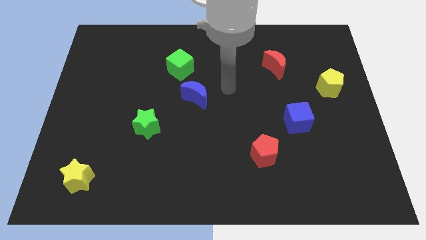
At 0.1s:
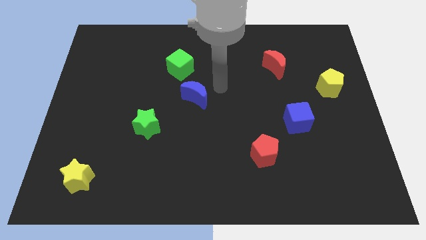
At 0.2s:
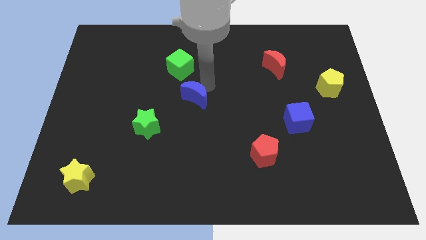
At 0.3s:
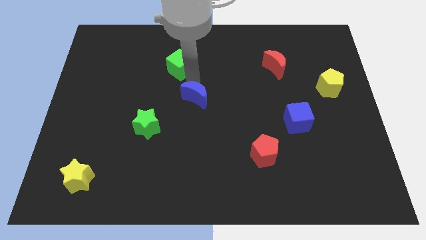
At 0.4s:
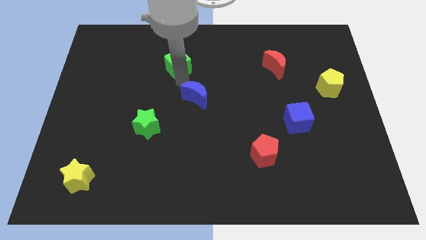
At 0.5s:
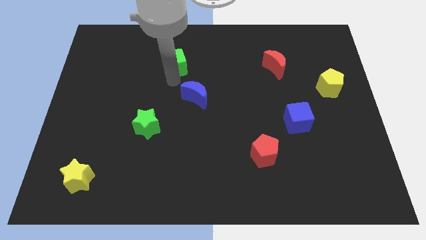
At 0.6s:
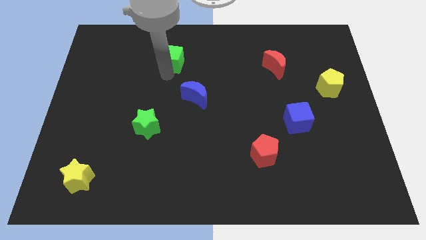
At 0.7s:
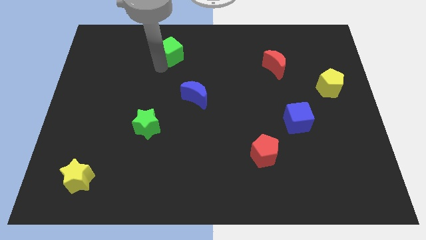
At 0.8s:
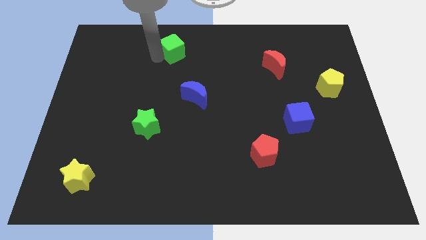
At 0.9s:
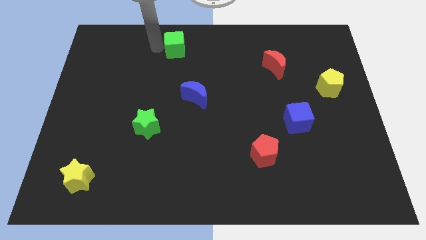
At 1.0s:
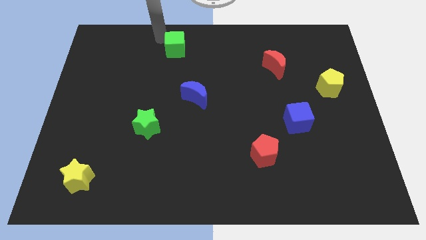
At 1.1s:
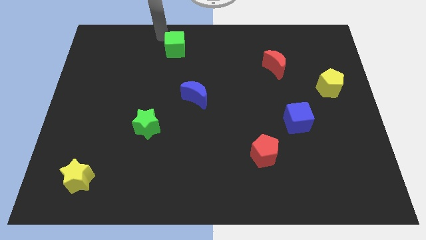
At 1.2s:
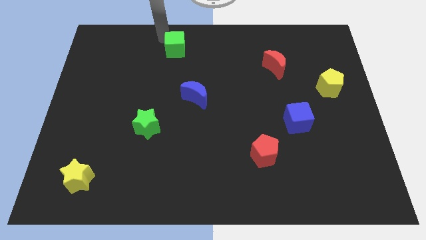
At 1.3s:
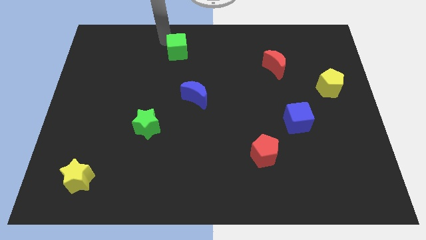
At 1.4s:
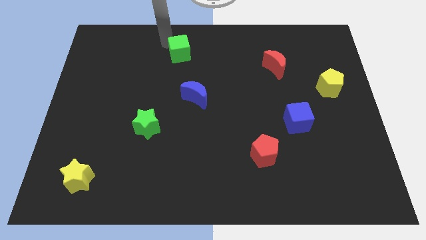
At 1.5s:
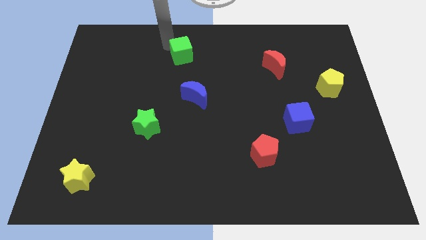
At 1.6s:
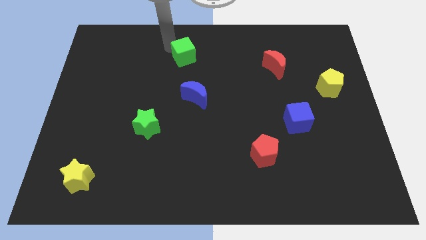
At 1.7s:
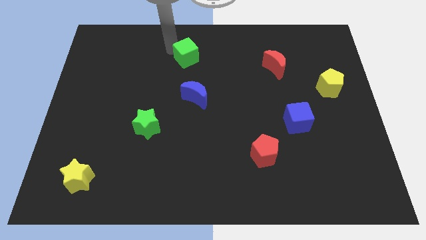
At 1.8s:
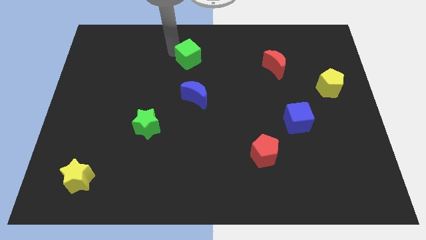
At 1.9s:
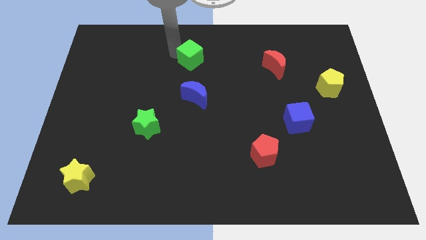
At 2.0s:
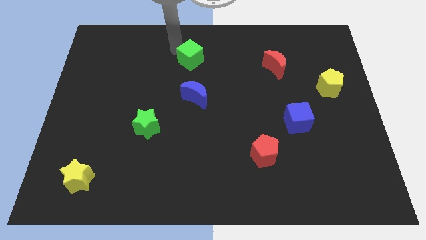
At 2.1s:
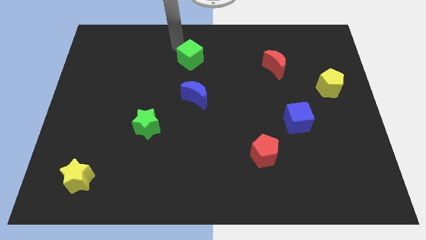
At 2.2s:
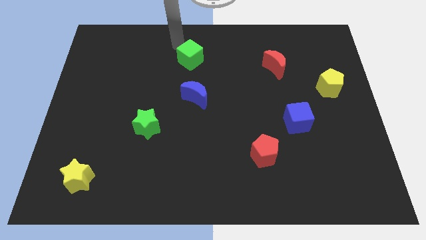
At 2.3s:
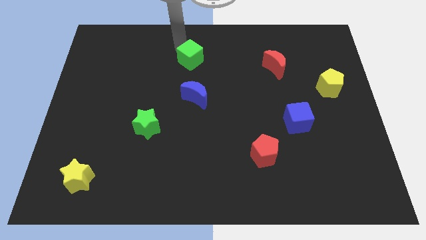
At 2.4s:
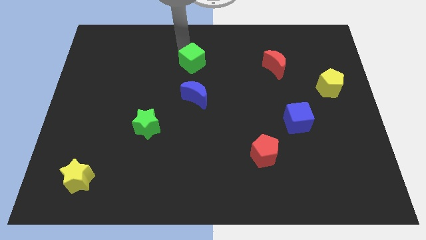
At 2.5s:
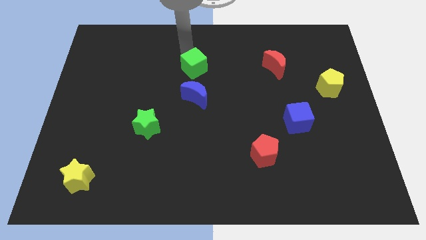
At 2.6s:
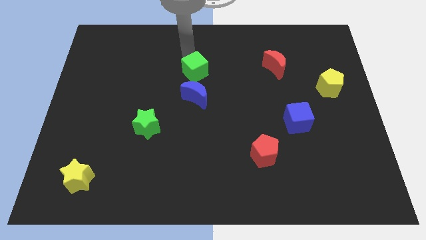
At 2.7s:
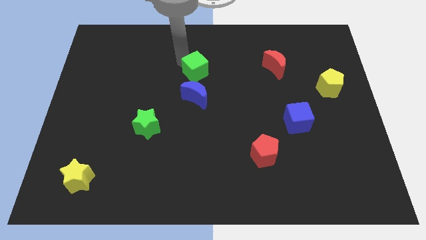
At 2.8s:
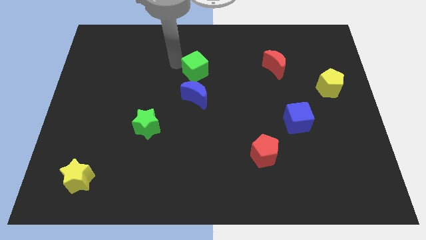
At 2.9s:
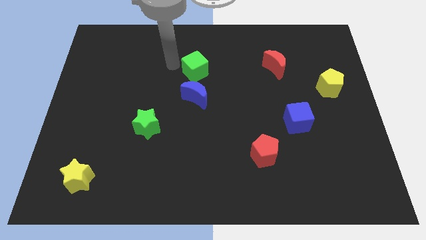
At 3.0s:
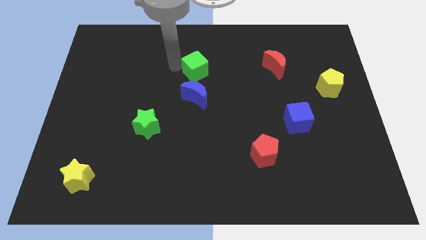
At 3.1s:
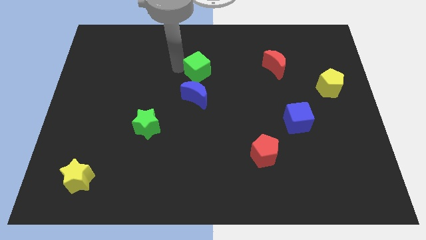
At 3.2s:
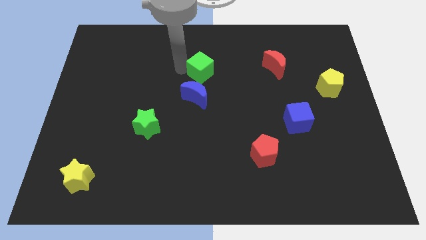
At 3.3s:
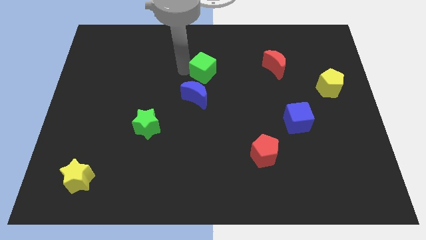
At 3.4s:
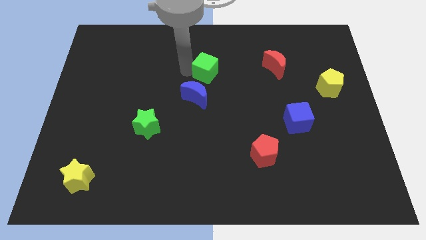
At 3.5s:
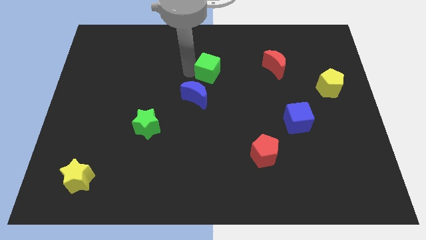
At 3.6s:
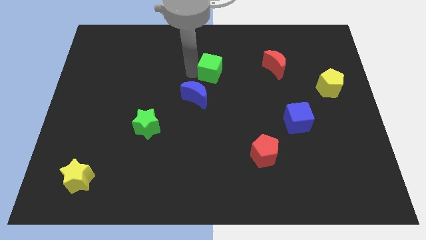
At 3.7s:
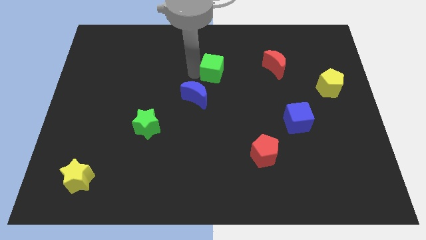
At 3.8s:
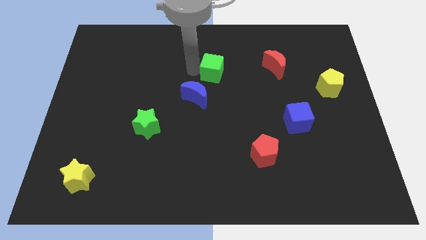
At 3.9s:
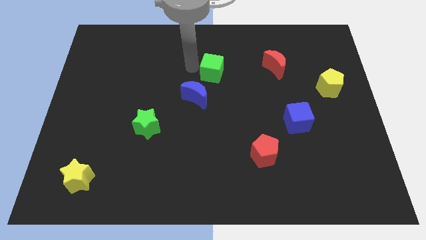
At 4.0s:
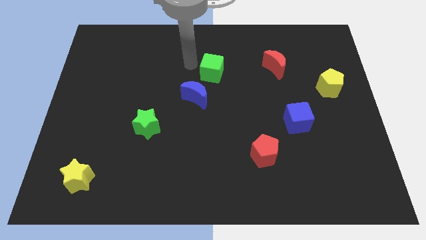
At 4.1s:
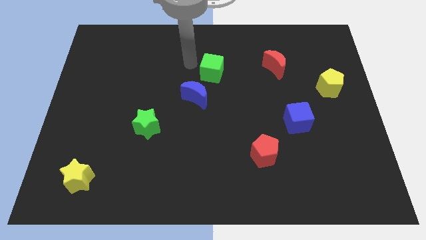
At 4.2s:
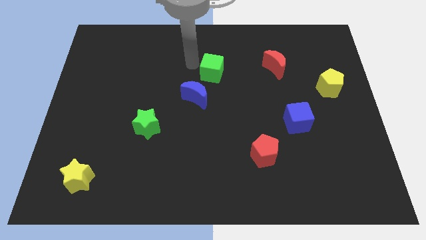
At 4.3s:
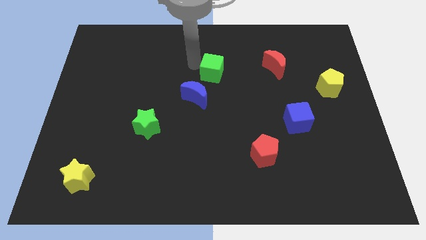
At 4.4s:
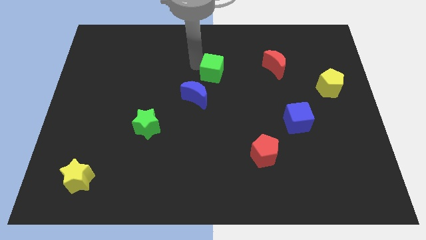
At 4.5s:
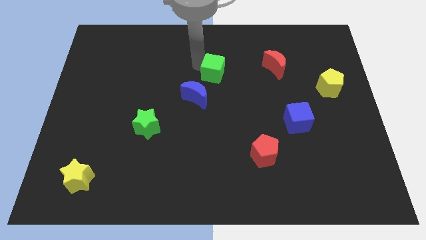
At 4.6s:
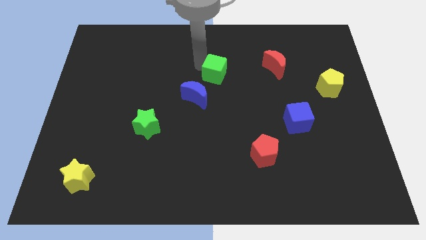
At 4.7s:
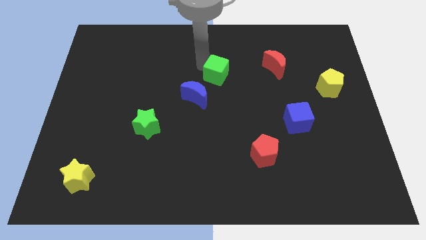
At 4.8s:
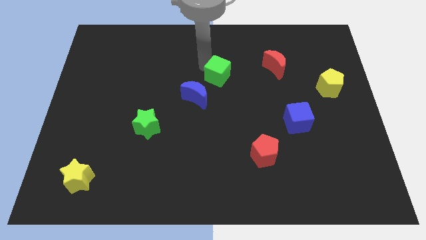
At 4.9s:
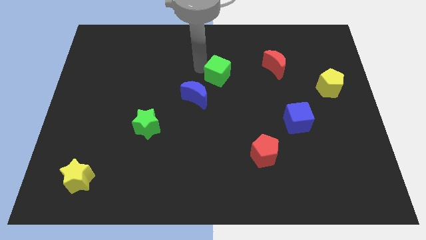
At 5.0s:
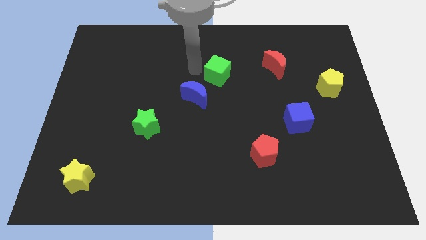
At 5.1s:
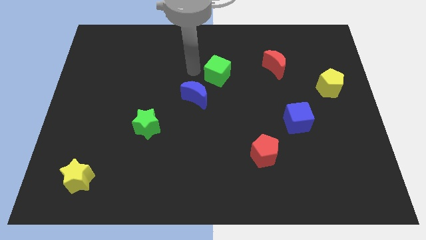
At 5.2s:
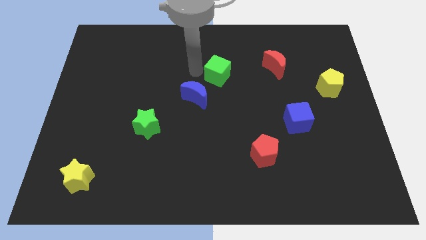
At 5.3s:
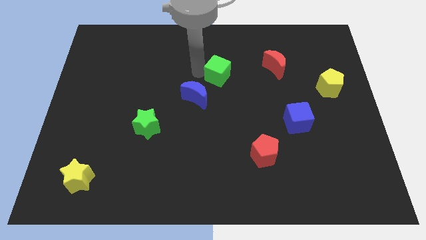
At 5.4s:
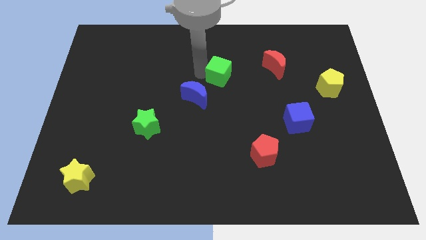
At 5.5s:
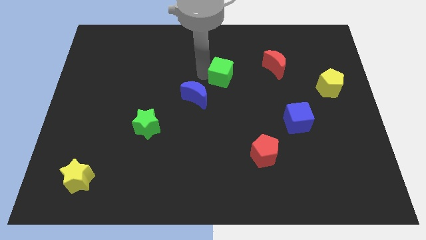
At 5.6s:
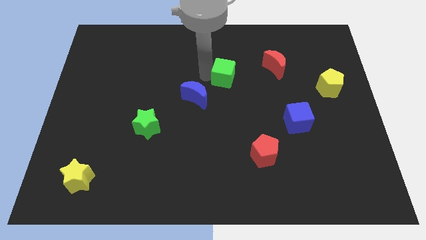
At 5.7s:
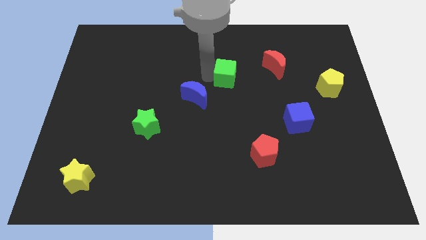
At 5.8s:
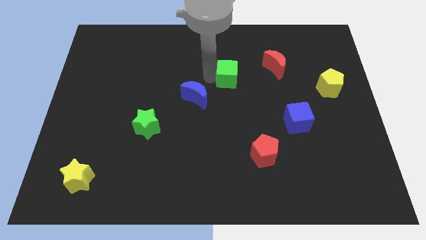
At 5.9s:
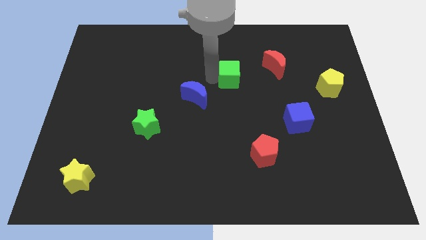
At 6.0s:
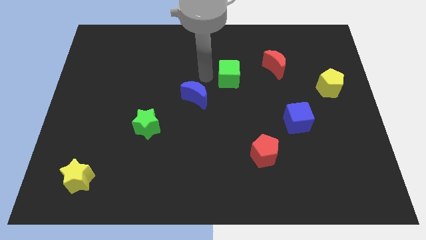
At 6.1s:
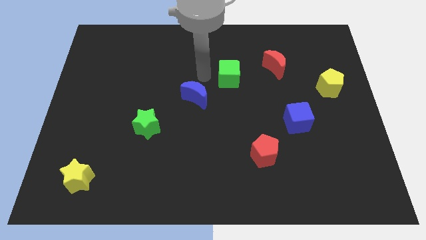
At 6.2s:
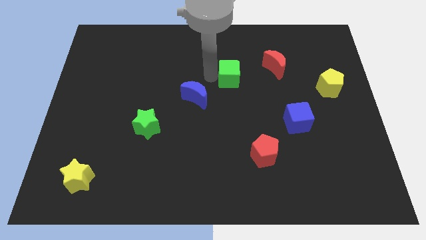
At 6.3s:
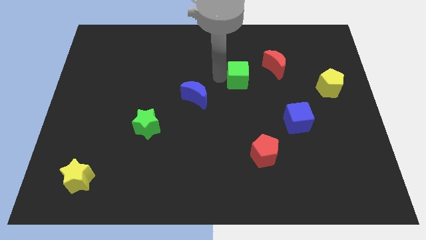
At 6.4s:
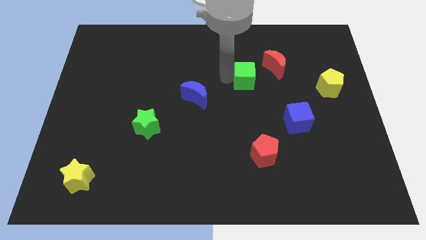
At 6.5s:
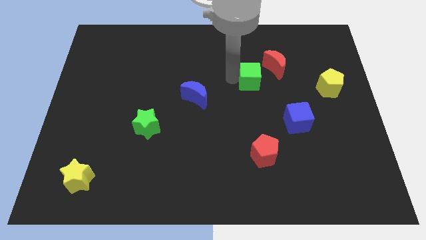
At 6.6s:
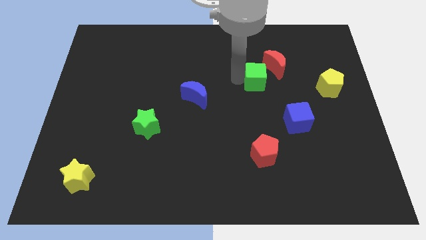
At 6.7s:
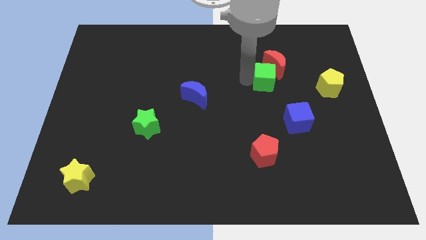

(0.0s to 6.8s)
push the green cube to the right

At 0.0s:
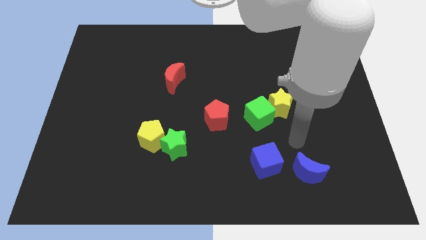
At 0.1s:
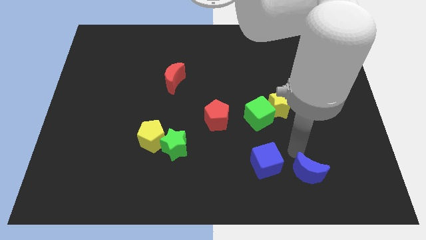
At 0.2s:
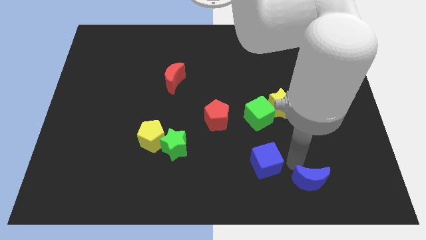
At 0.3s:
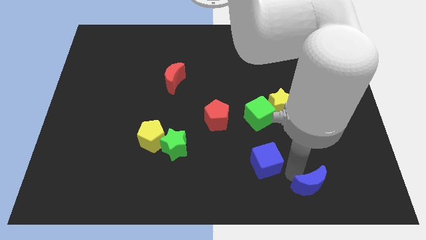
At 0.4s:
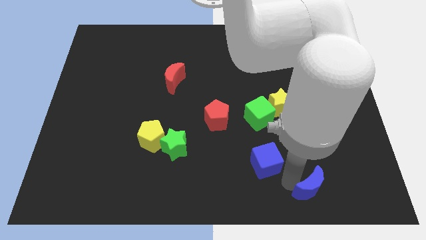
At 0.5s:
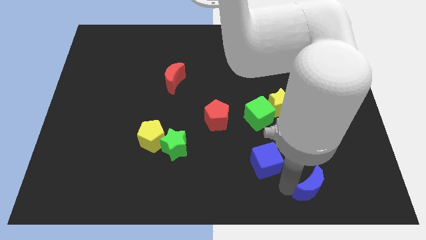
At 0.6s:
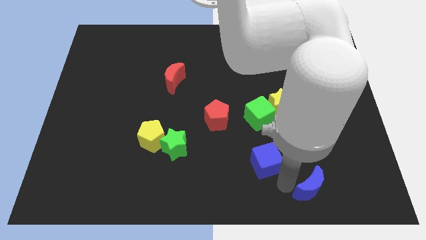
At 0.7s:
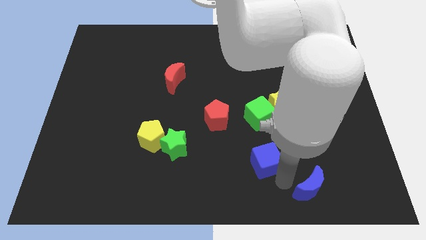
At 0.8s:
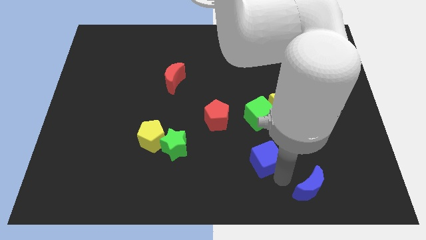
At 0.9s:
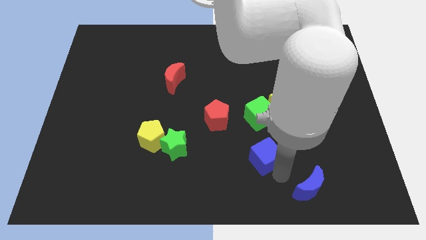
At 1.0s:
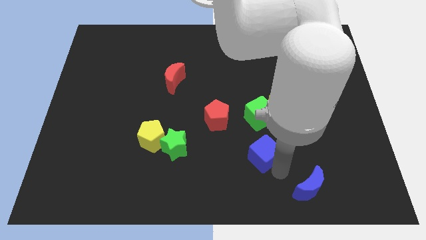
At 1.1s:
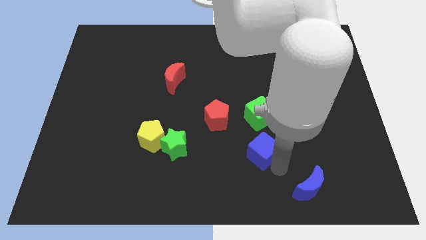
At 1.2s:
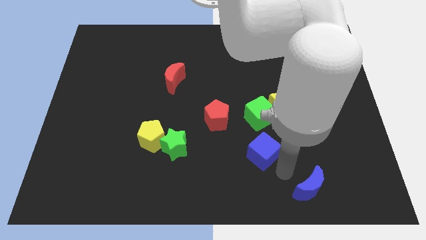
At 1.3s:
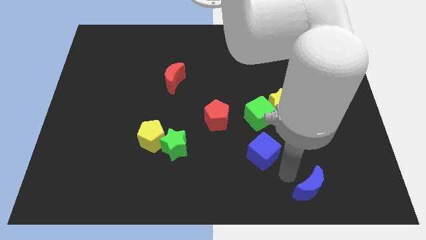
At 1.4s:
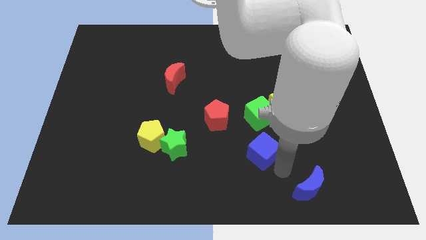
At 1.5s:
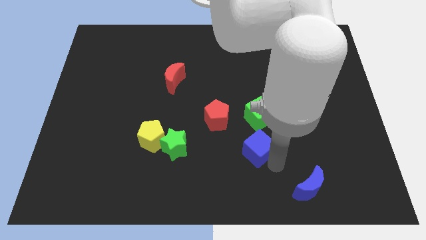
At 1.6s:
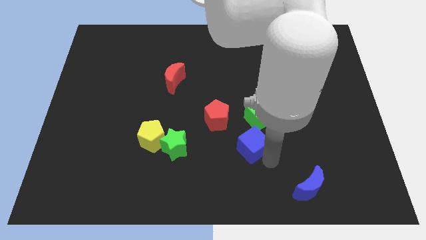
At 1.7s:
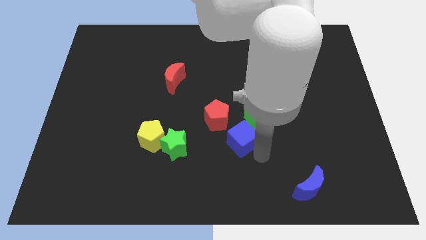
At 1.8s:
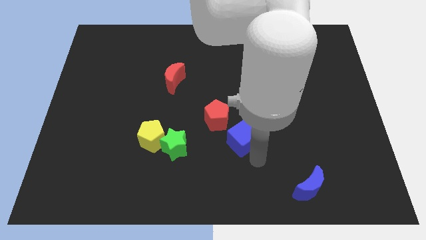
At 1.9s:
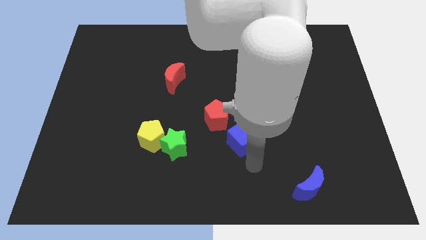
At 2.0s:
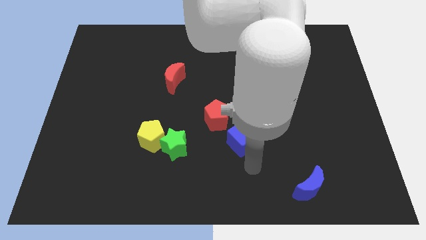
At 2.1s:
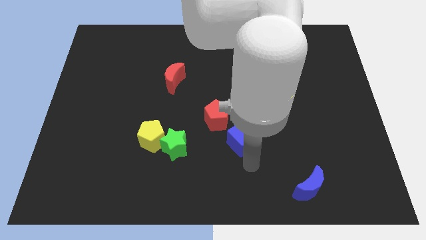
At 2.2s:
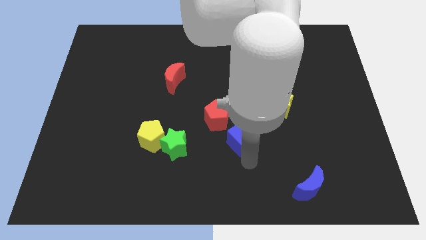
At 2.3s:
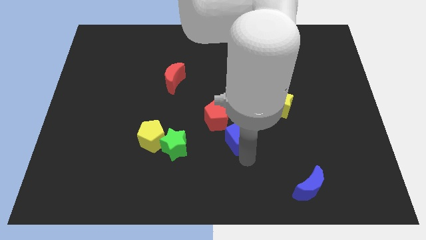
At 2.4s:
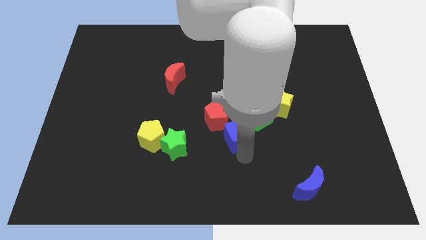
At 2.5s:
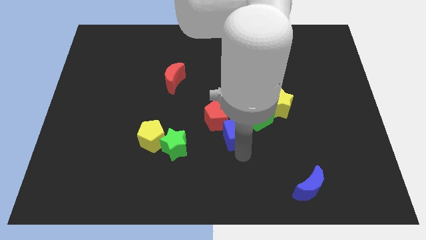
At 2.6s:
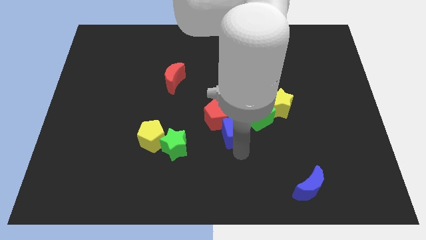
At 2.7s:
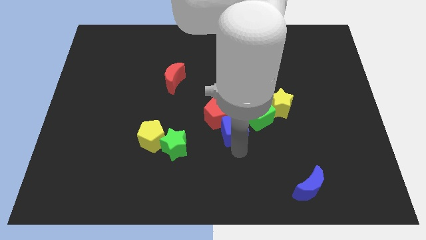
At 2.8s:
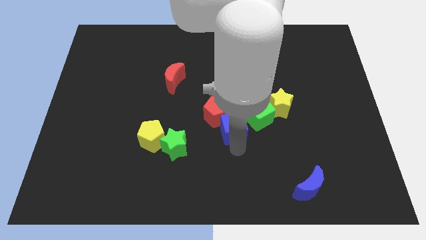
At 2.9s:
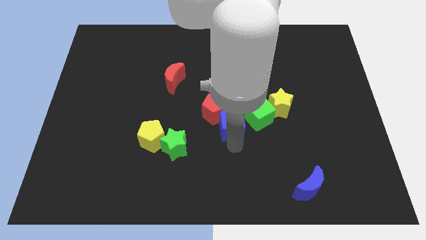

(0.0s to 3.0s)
slide the blue cube upwards a bit
